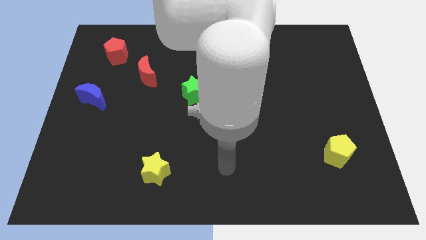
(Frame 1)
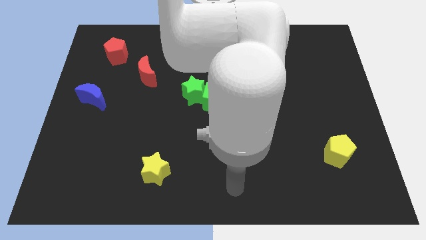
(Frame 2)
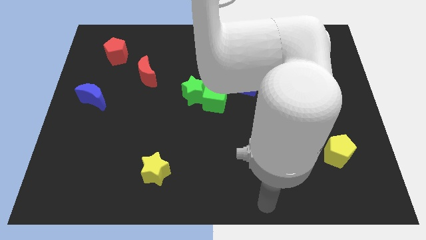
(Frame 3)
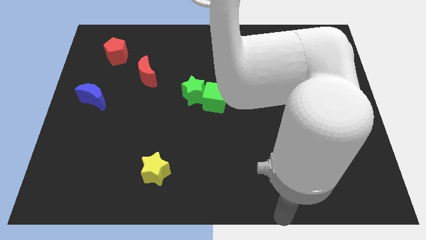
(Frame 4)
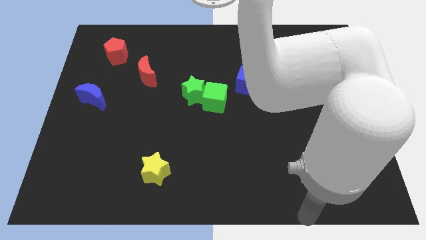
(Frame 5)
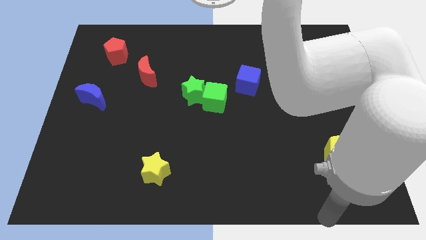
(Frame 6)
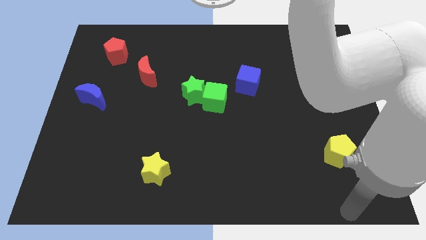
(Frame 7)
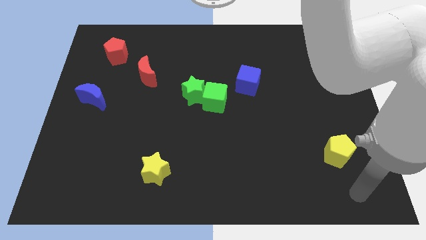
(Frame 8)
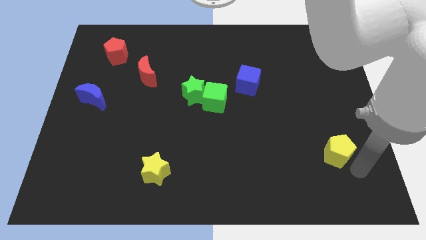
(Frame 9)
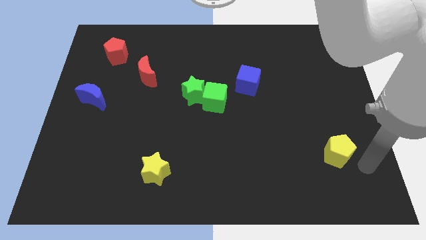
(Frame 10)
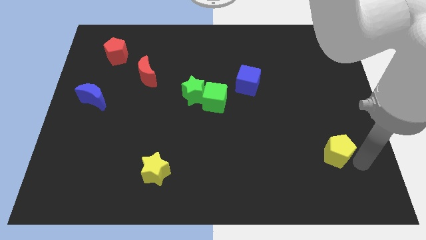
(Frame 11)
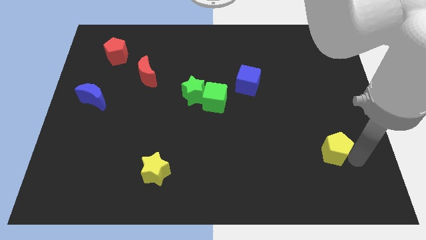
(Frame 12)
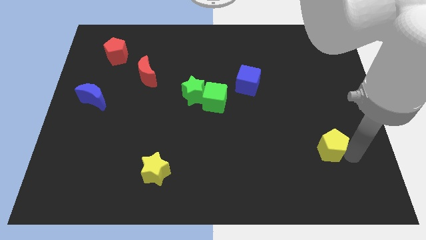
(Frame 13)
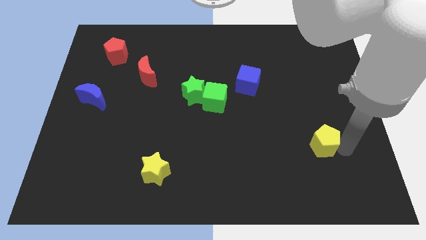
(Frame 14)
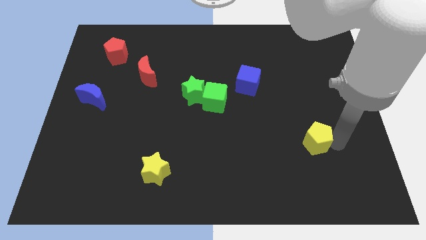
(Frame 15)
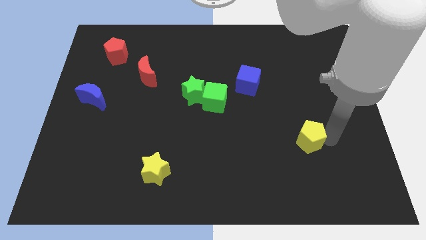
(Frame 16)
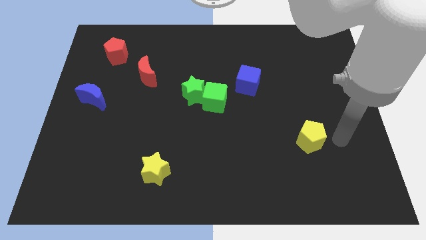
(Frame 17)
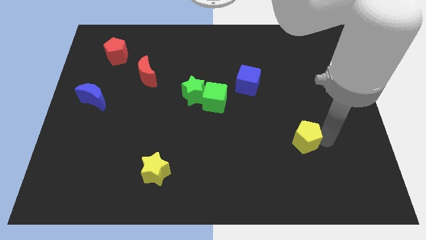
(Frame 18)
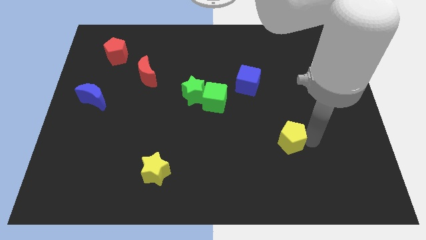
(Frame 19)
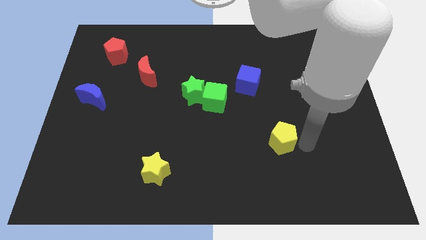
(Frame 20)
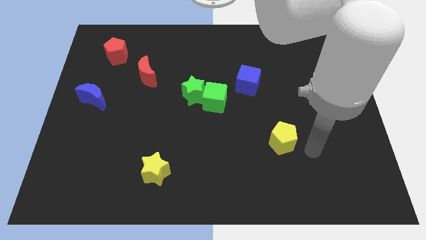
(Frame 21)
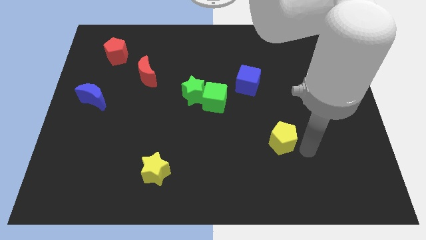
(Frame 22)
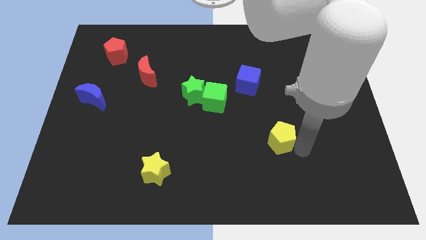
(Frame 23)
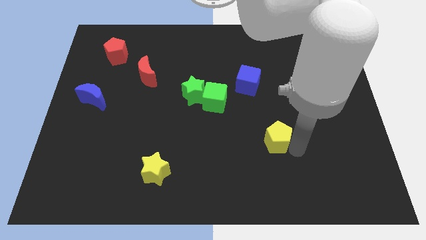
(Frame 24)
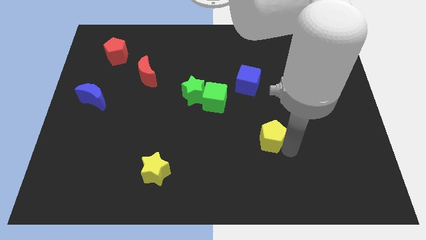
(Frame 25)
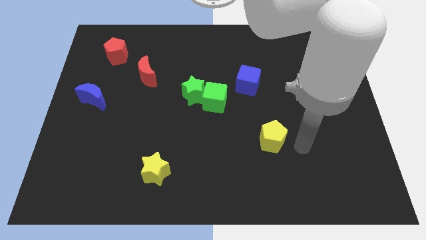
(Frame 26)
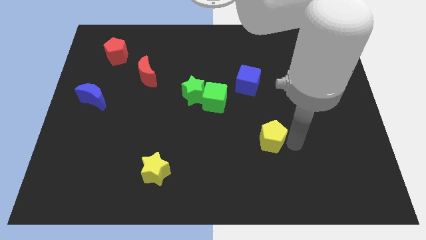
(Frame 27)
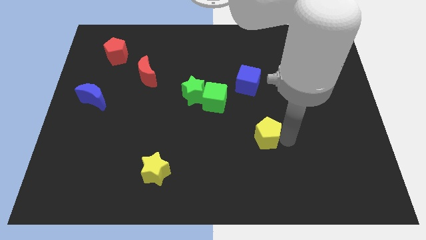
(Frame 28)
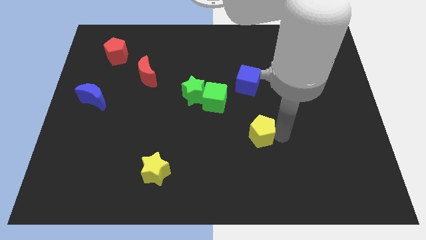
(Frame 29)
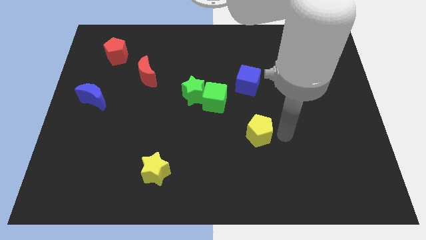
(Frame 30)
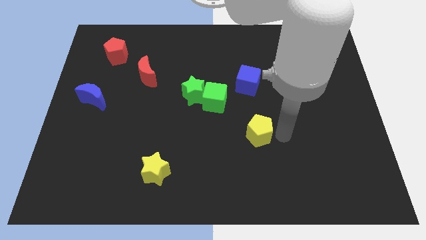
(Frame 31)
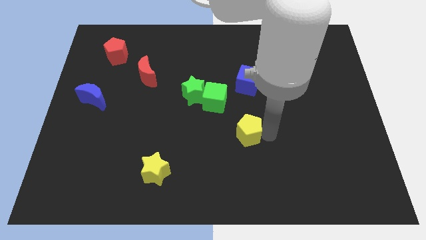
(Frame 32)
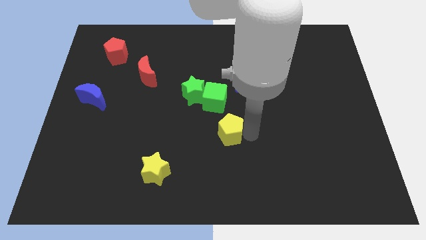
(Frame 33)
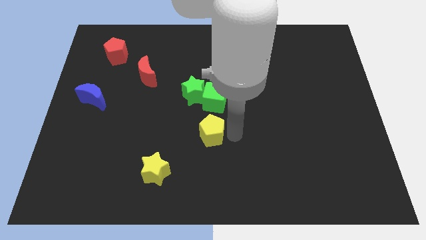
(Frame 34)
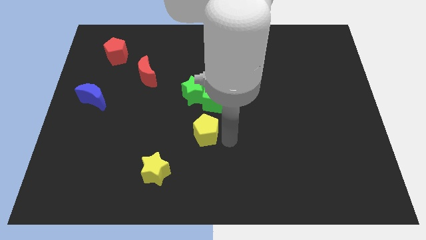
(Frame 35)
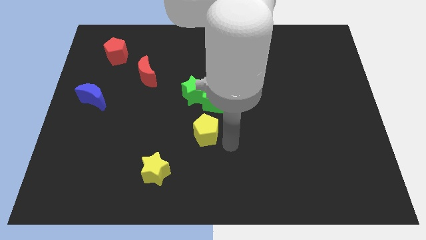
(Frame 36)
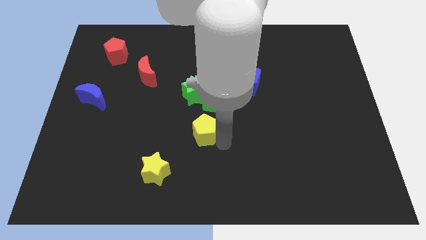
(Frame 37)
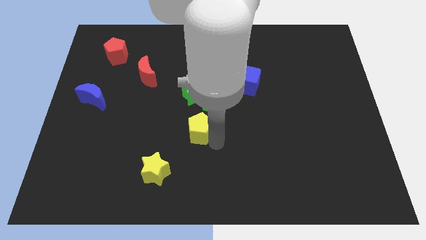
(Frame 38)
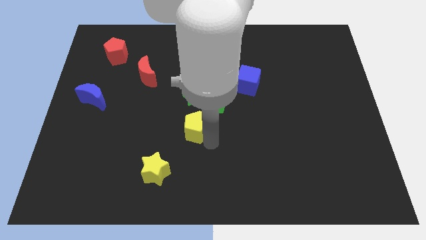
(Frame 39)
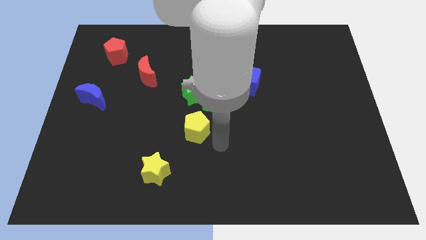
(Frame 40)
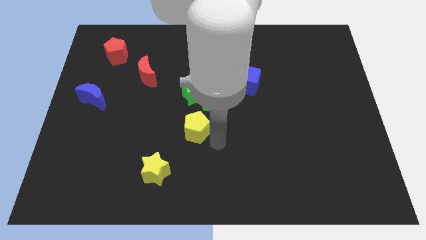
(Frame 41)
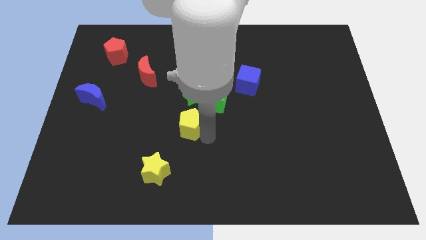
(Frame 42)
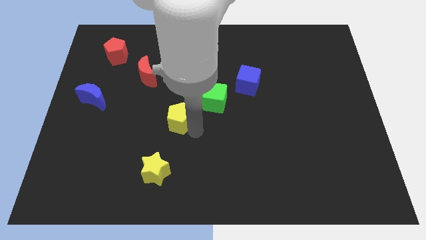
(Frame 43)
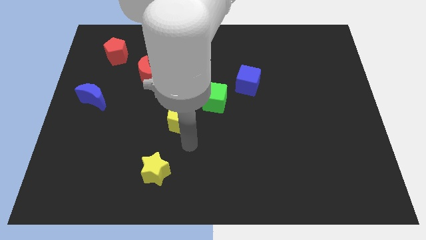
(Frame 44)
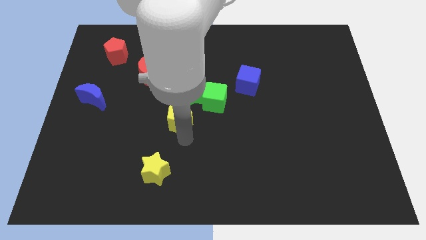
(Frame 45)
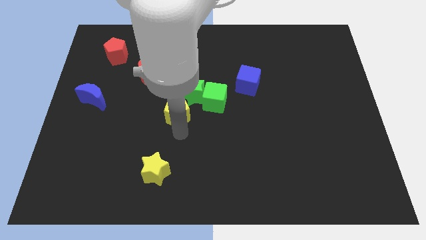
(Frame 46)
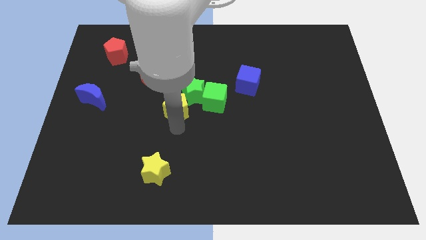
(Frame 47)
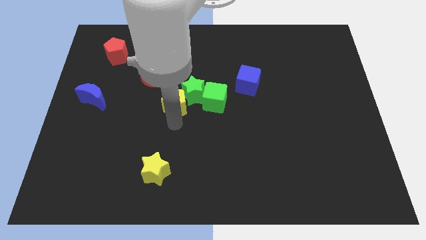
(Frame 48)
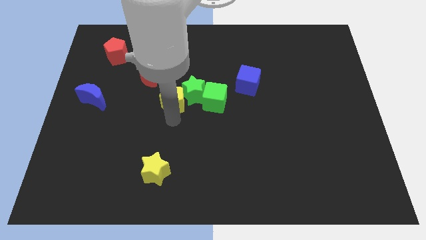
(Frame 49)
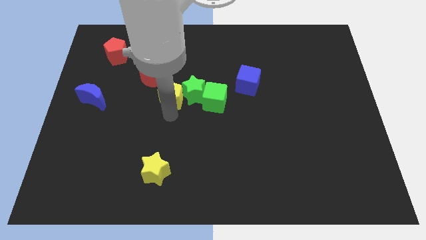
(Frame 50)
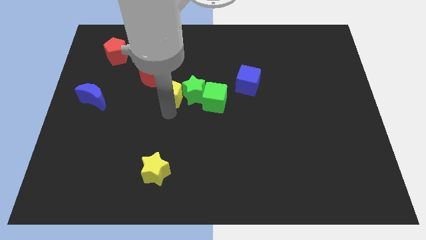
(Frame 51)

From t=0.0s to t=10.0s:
slide the yellow pentagon to the top left side of the green star

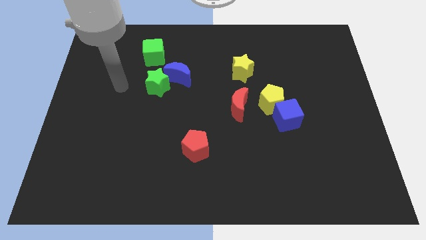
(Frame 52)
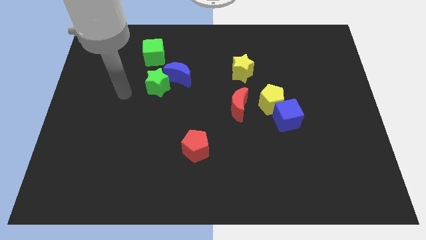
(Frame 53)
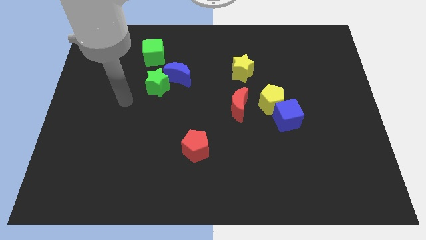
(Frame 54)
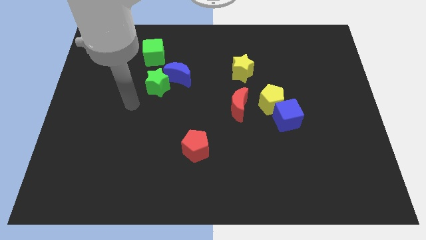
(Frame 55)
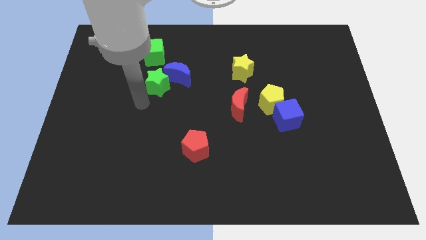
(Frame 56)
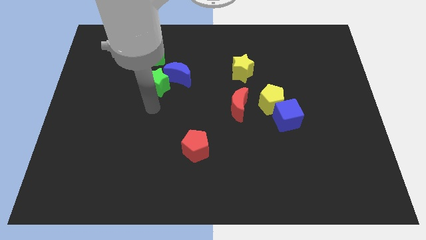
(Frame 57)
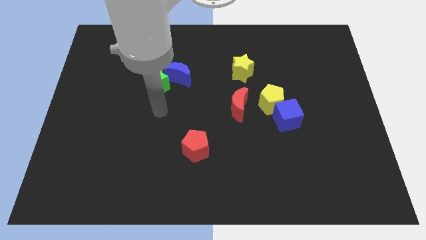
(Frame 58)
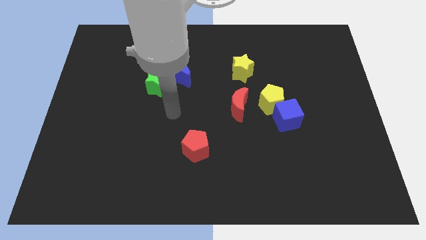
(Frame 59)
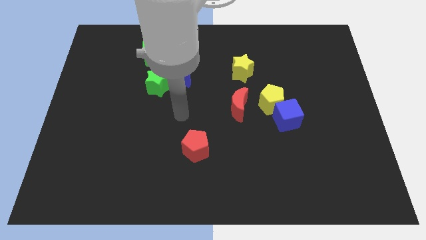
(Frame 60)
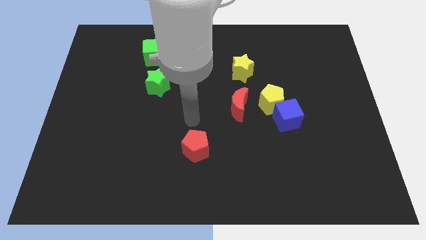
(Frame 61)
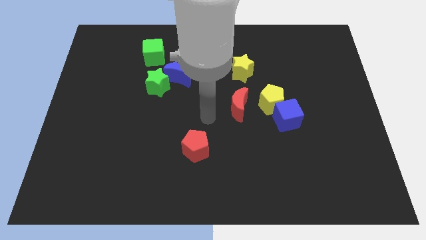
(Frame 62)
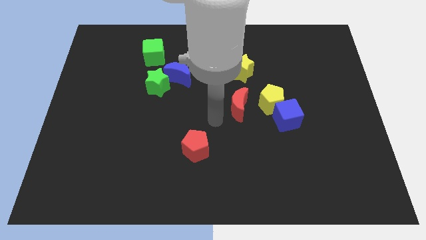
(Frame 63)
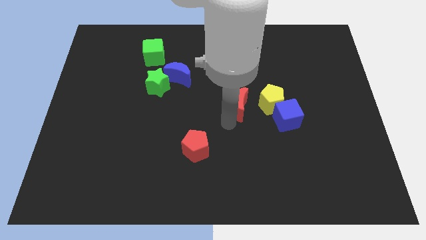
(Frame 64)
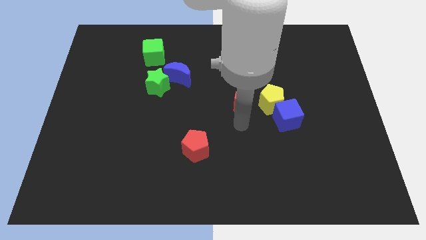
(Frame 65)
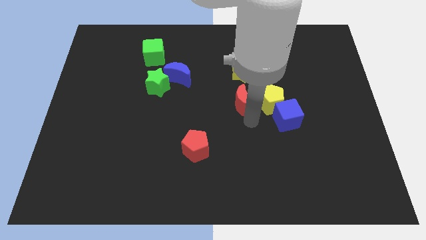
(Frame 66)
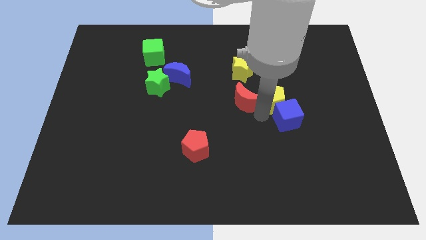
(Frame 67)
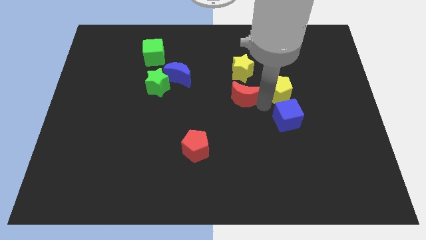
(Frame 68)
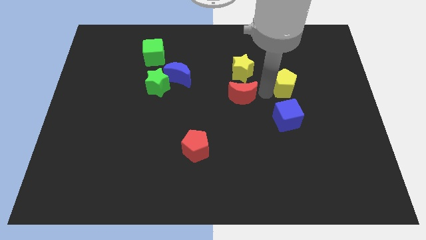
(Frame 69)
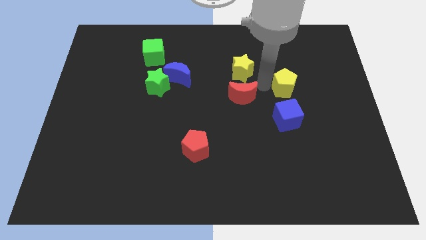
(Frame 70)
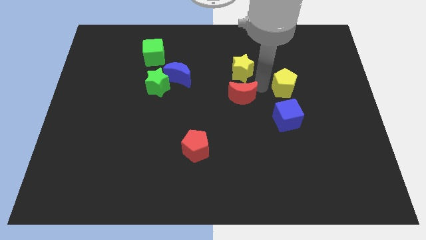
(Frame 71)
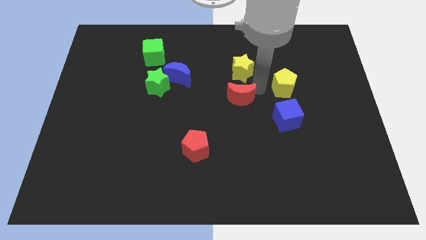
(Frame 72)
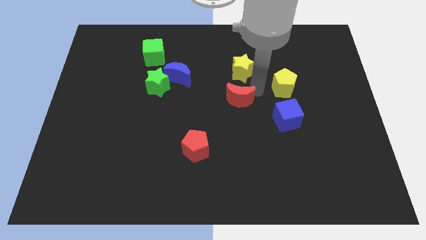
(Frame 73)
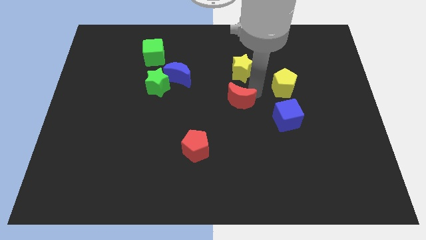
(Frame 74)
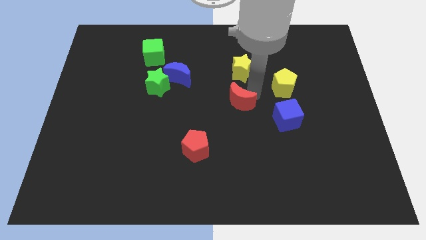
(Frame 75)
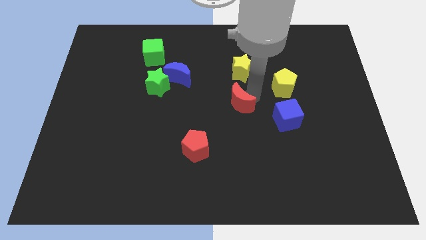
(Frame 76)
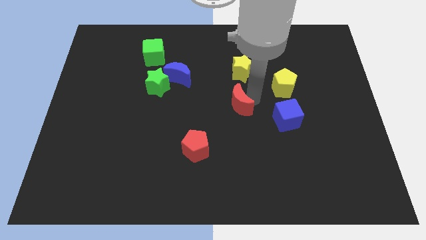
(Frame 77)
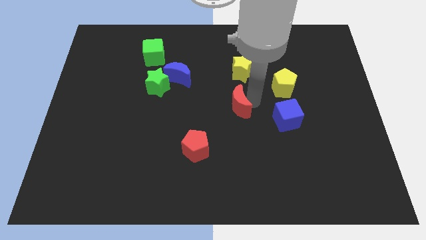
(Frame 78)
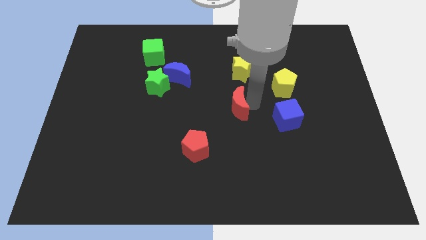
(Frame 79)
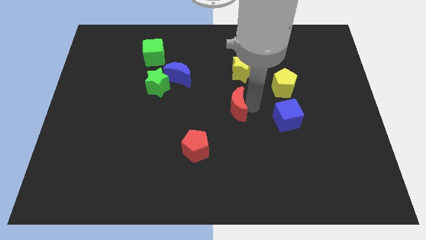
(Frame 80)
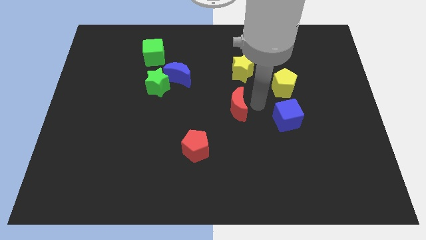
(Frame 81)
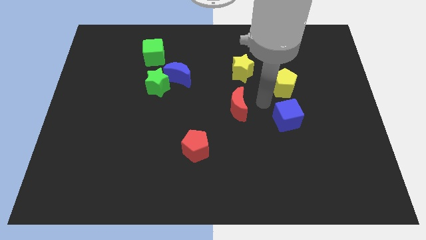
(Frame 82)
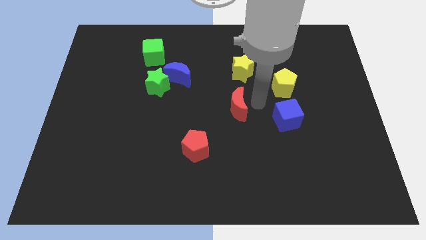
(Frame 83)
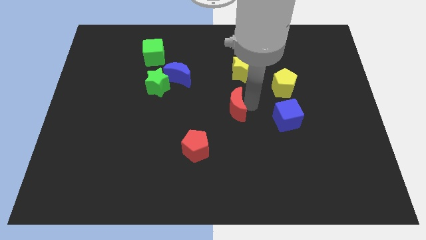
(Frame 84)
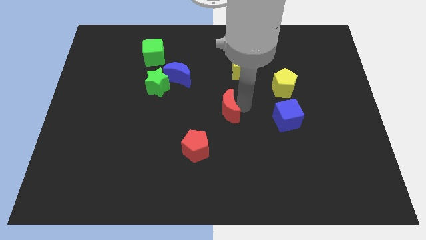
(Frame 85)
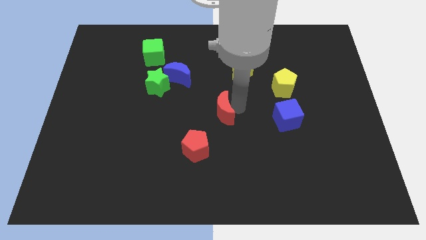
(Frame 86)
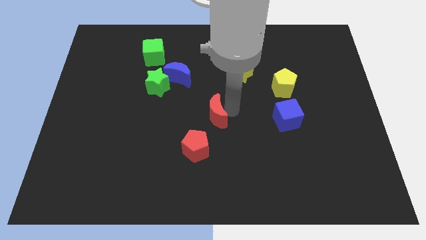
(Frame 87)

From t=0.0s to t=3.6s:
push the red moon to the top of the red pentagon
